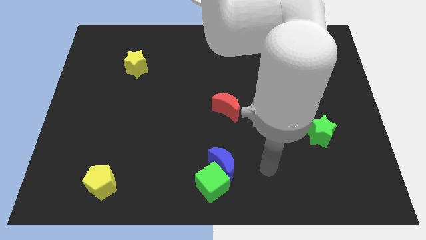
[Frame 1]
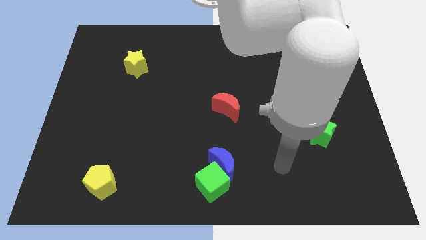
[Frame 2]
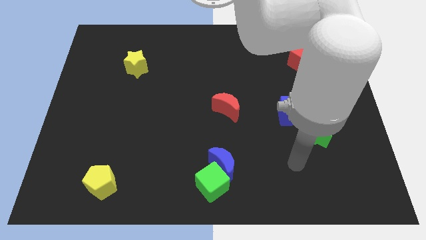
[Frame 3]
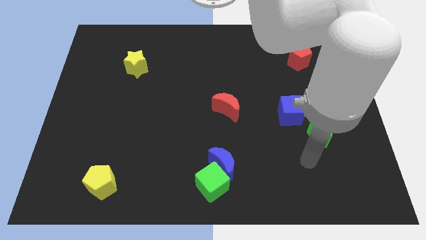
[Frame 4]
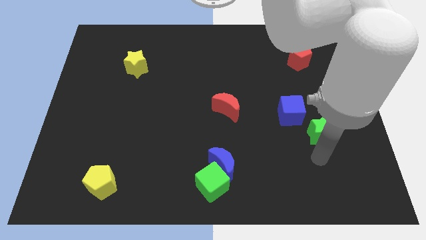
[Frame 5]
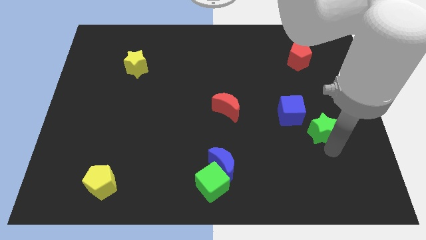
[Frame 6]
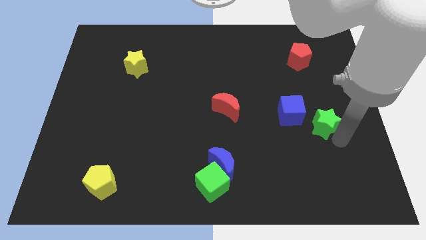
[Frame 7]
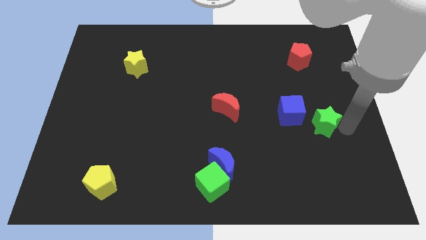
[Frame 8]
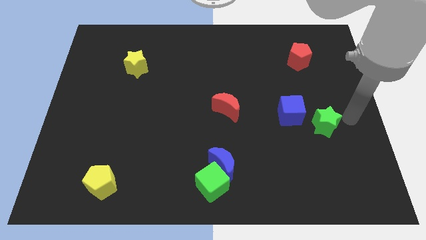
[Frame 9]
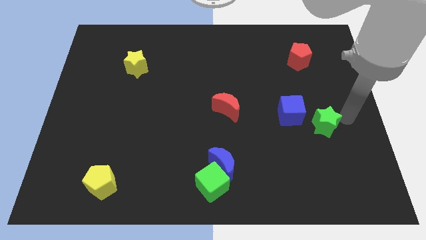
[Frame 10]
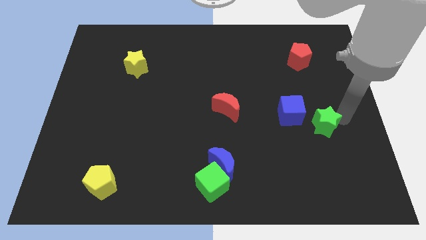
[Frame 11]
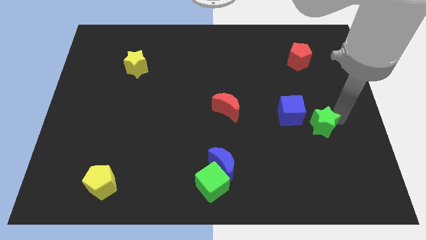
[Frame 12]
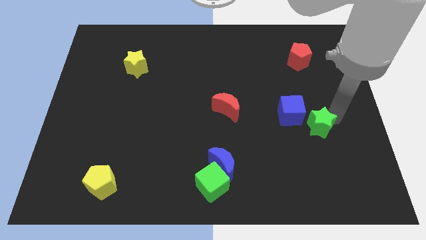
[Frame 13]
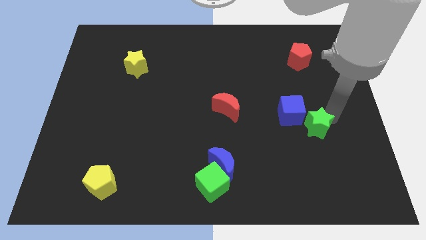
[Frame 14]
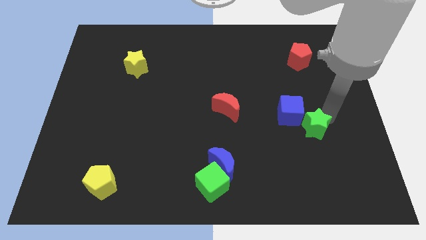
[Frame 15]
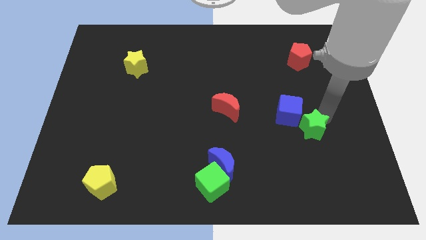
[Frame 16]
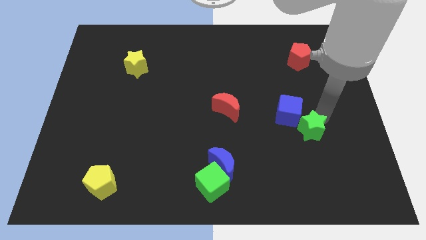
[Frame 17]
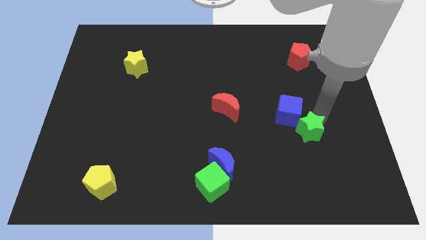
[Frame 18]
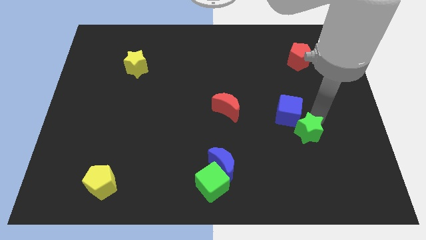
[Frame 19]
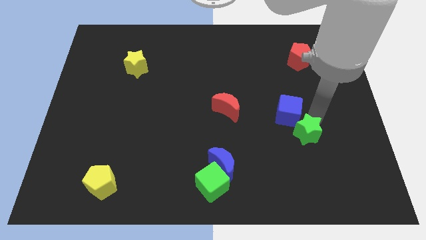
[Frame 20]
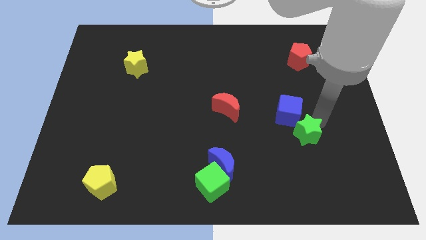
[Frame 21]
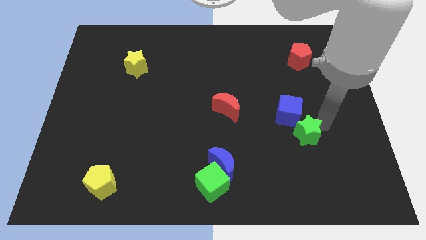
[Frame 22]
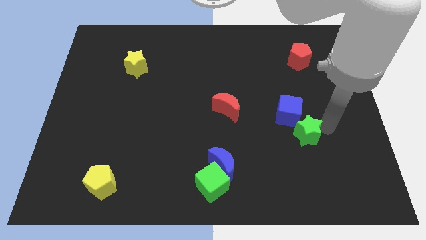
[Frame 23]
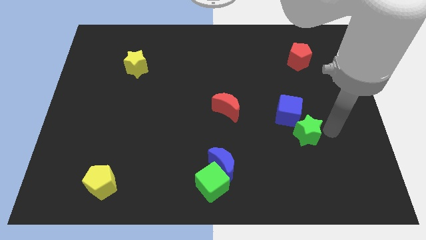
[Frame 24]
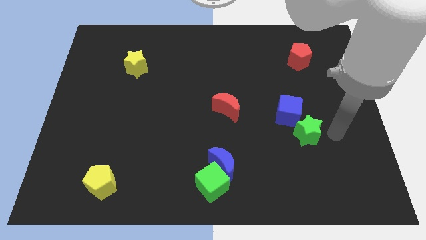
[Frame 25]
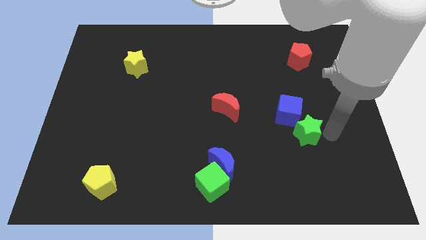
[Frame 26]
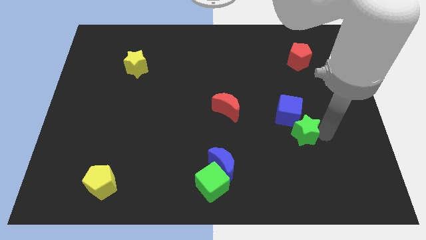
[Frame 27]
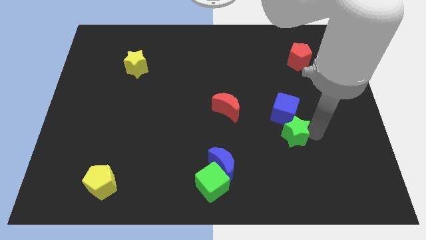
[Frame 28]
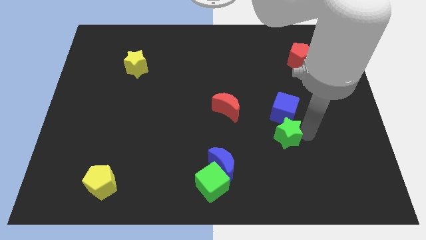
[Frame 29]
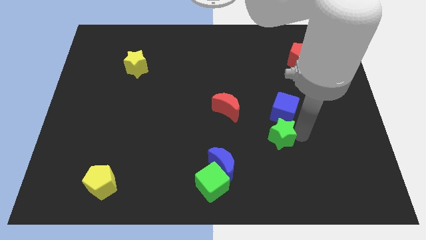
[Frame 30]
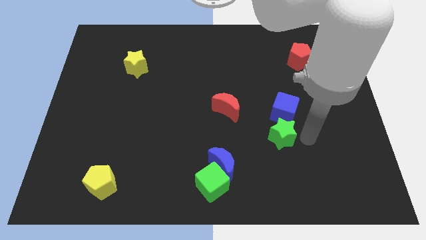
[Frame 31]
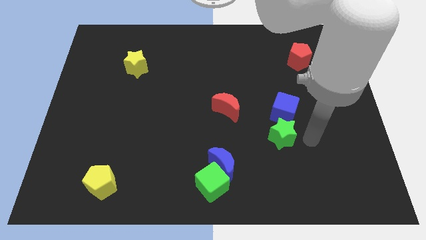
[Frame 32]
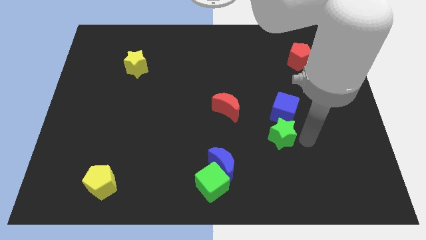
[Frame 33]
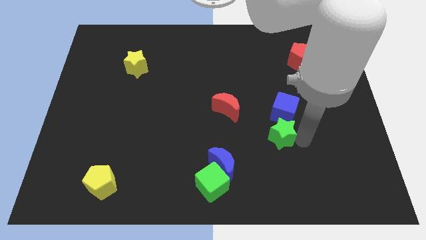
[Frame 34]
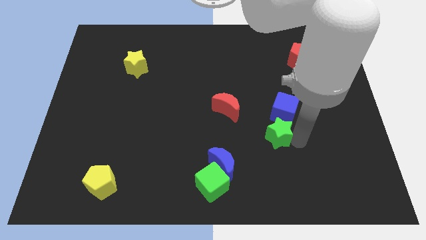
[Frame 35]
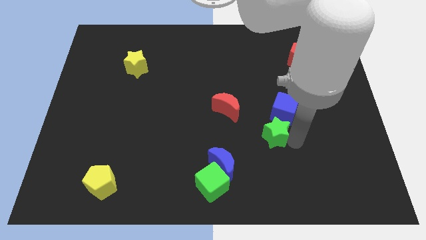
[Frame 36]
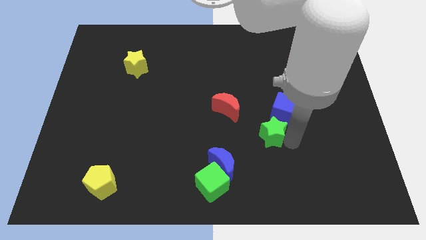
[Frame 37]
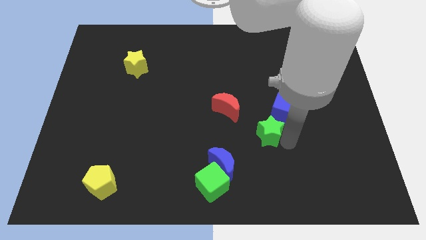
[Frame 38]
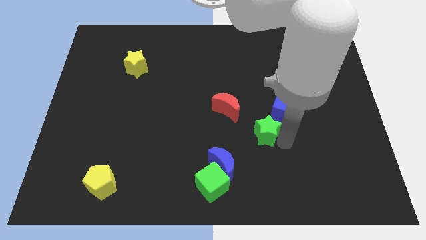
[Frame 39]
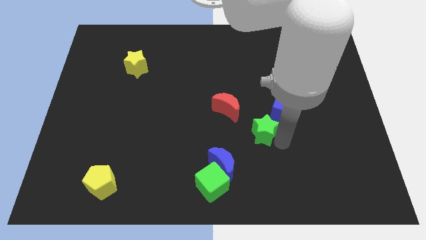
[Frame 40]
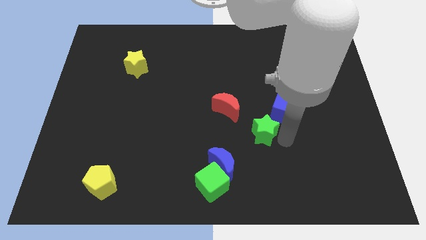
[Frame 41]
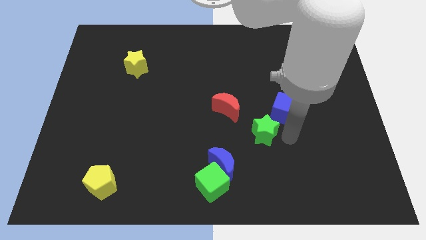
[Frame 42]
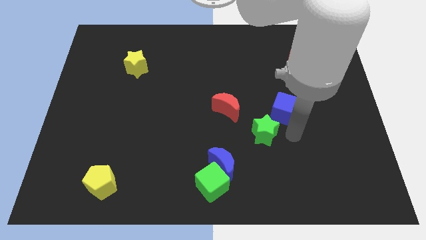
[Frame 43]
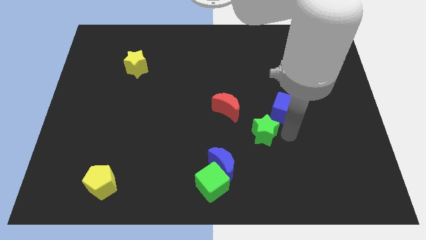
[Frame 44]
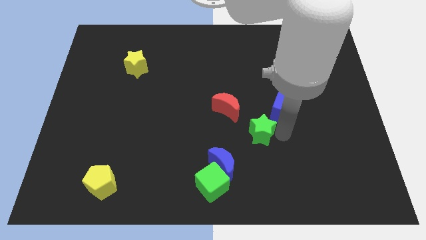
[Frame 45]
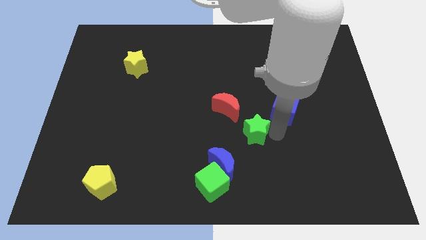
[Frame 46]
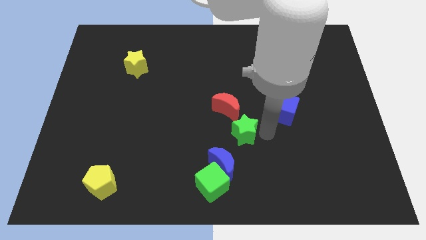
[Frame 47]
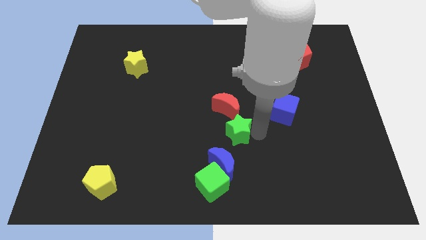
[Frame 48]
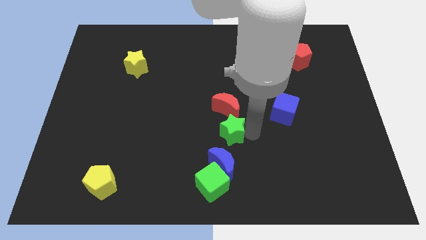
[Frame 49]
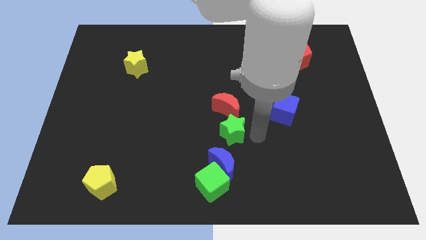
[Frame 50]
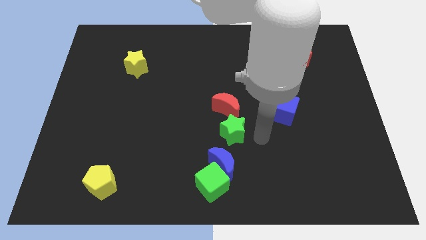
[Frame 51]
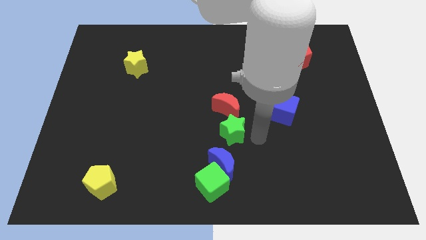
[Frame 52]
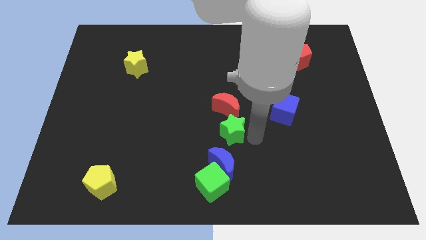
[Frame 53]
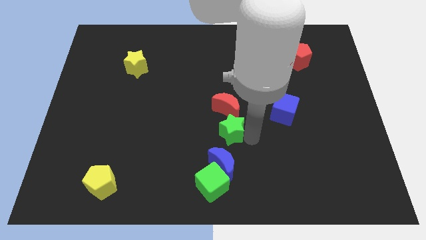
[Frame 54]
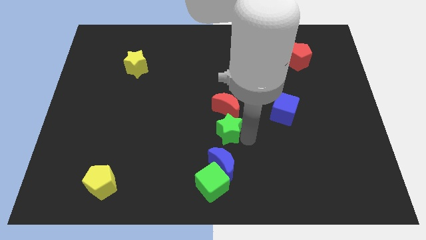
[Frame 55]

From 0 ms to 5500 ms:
push the green star to the bottom left of the red moon

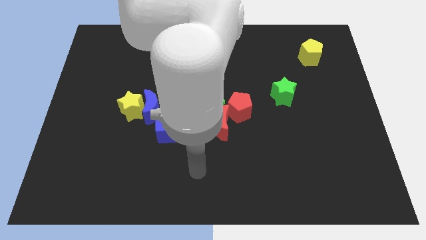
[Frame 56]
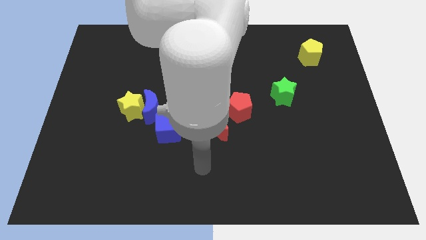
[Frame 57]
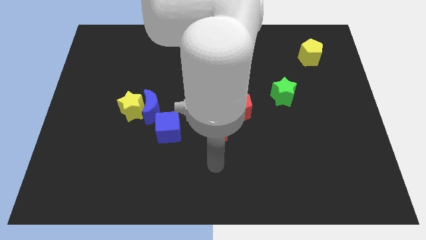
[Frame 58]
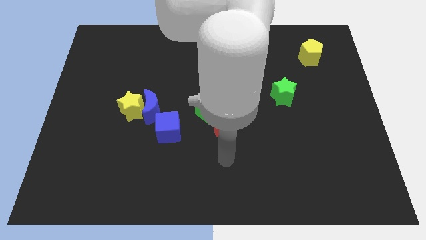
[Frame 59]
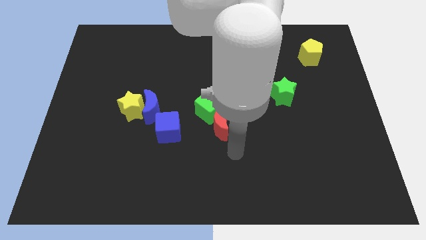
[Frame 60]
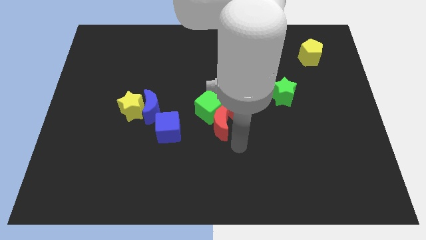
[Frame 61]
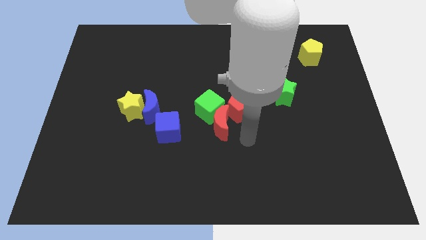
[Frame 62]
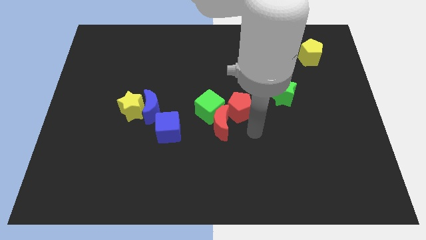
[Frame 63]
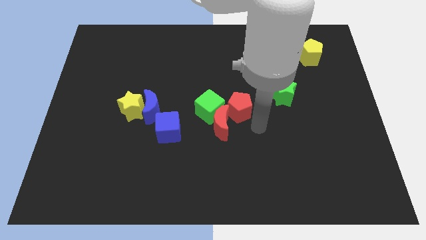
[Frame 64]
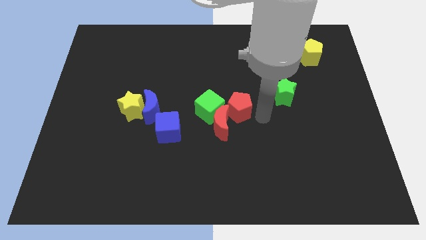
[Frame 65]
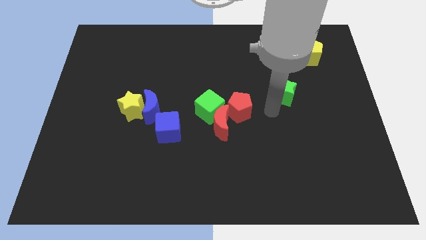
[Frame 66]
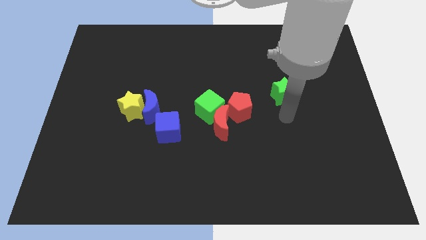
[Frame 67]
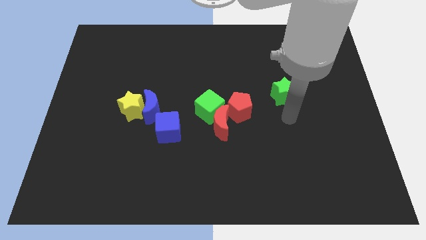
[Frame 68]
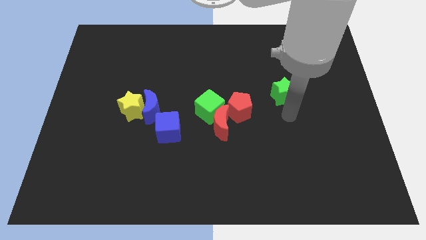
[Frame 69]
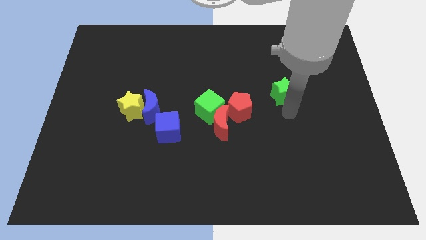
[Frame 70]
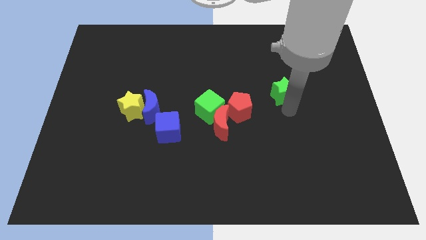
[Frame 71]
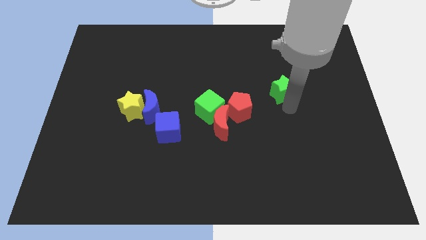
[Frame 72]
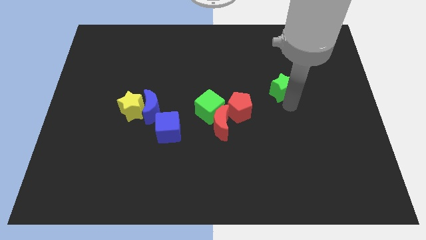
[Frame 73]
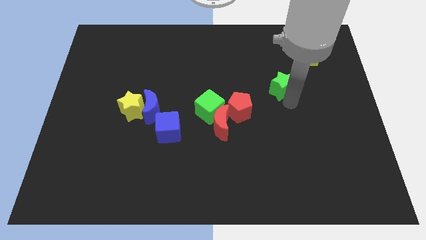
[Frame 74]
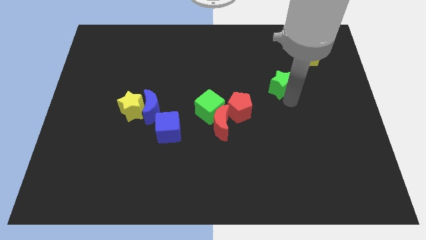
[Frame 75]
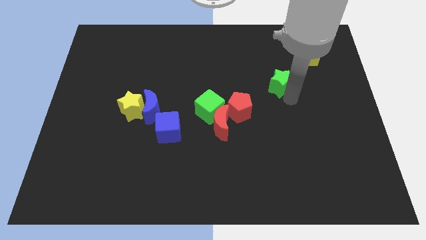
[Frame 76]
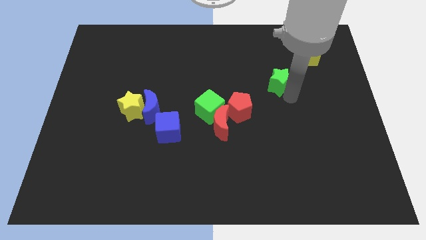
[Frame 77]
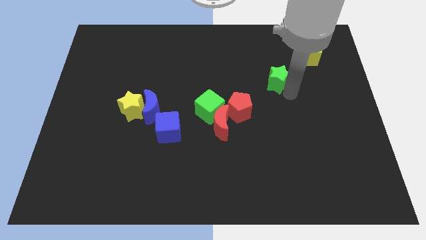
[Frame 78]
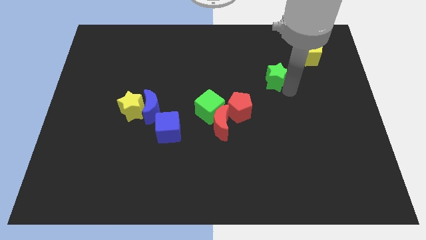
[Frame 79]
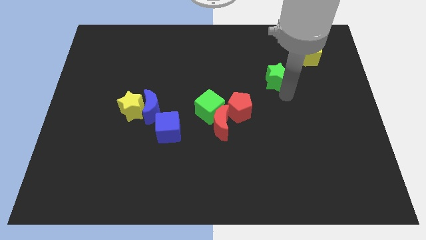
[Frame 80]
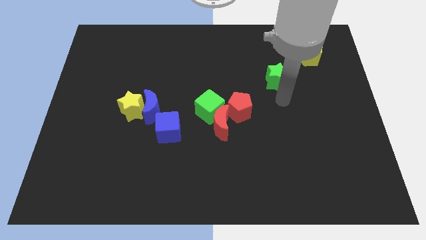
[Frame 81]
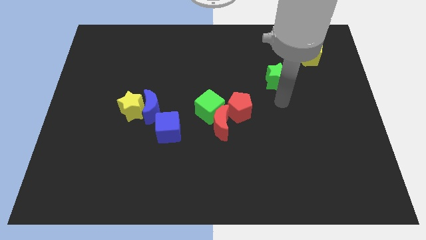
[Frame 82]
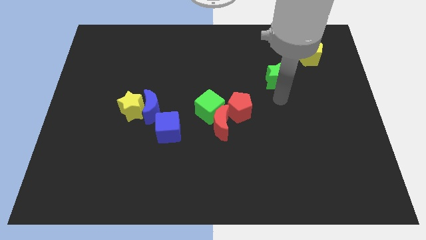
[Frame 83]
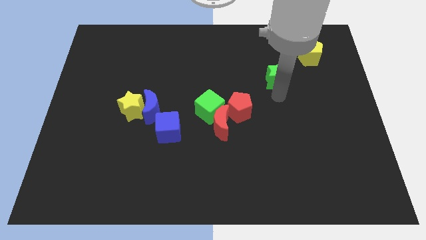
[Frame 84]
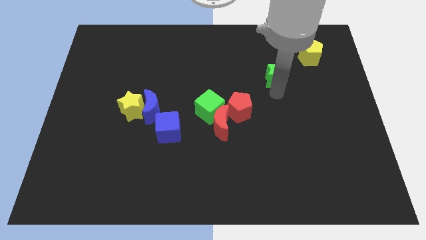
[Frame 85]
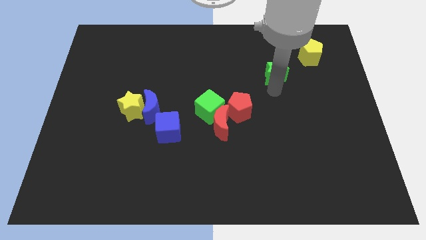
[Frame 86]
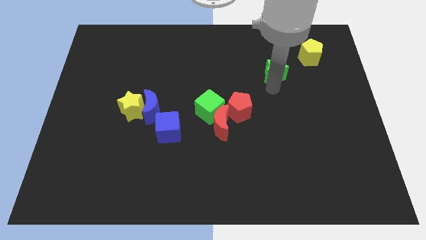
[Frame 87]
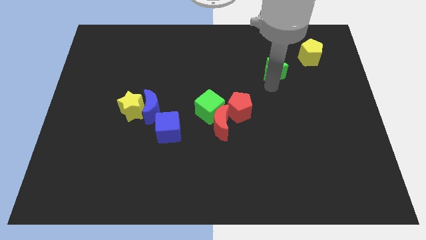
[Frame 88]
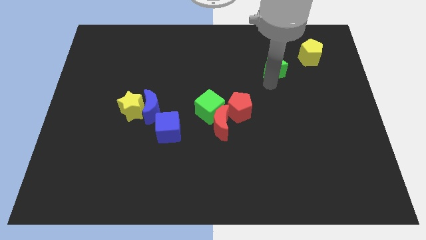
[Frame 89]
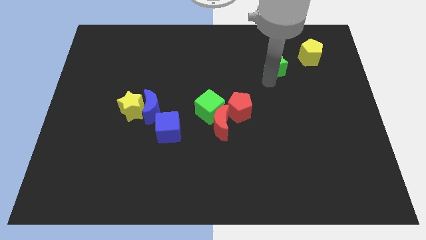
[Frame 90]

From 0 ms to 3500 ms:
push the green star just left of the yellow pentagon
